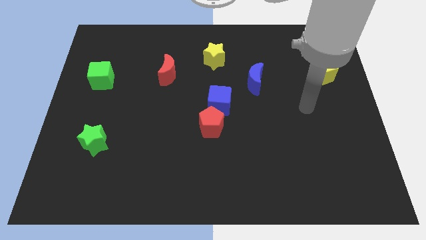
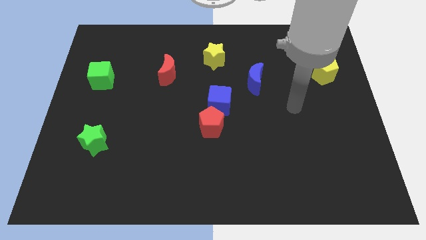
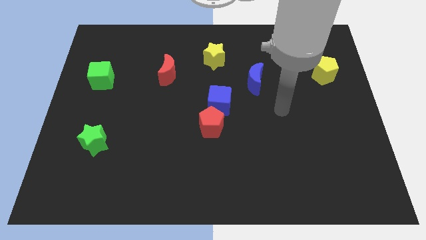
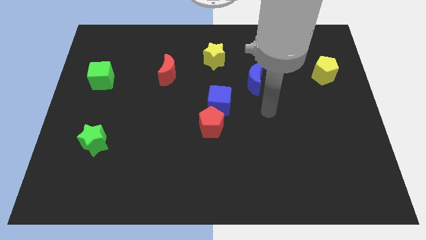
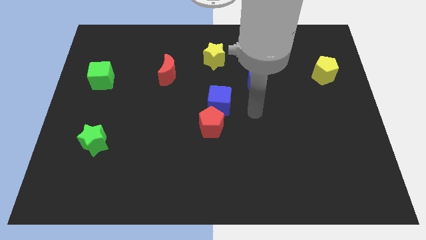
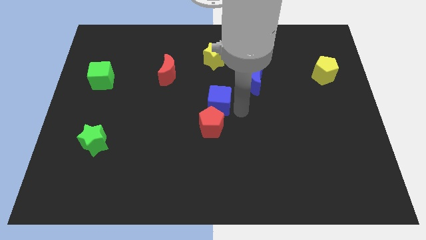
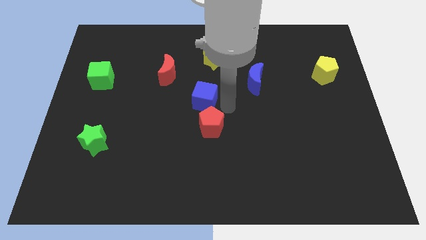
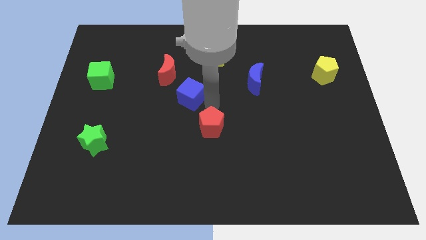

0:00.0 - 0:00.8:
move the red pentagon away from the blue cube

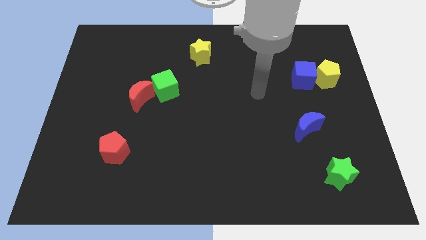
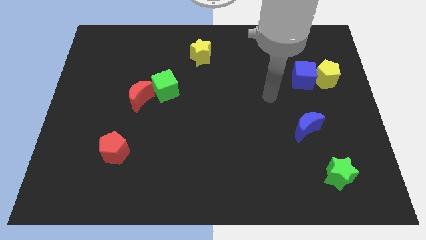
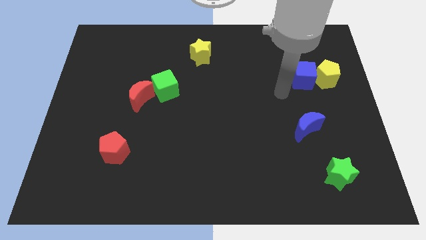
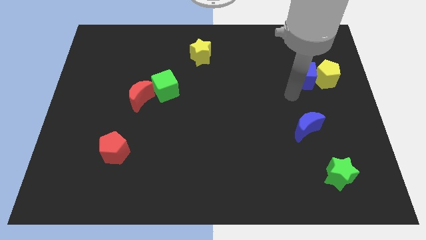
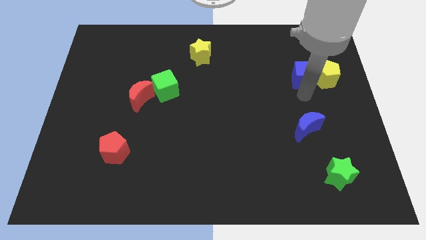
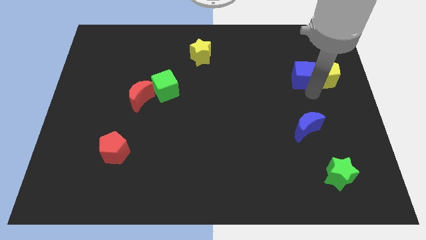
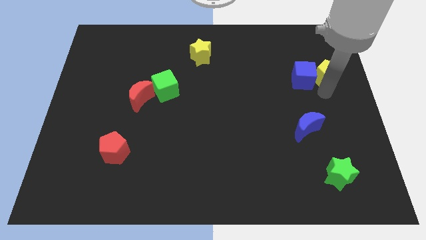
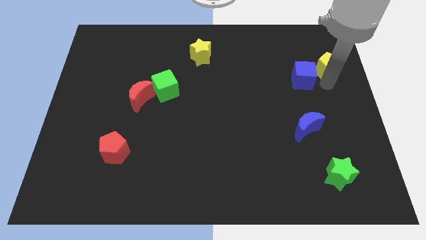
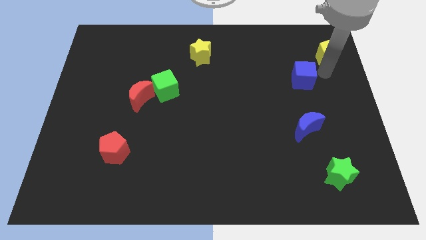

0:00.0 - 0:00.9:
separate the blue cube from the yellow pentagon

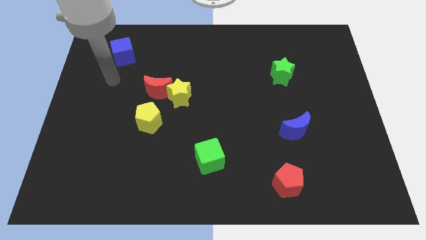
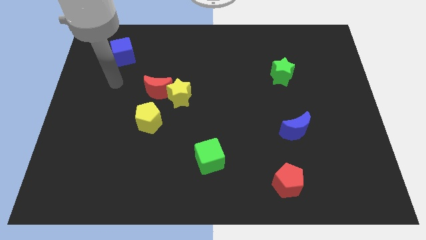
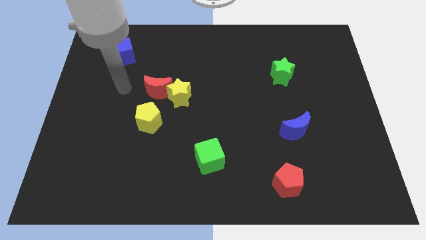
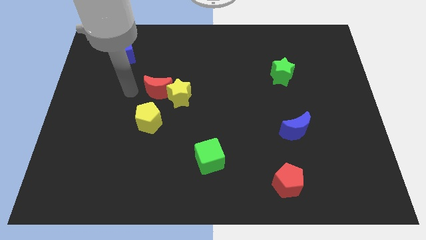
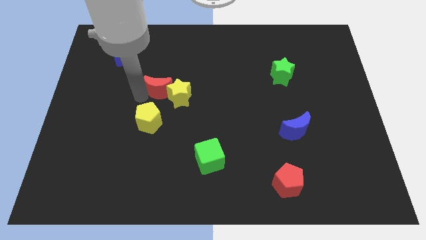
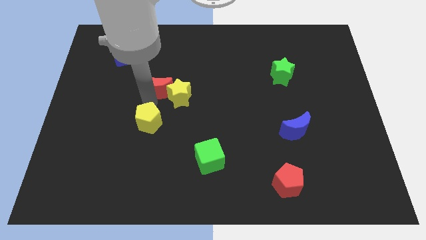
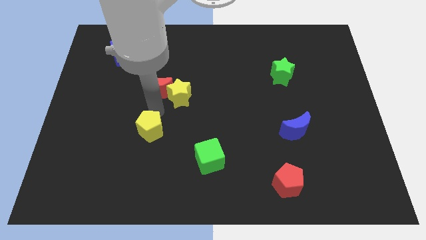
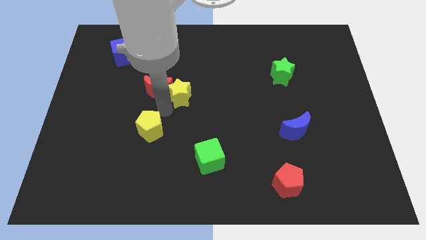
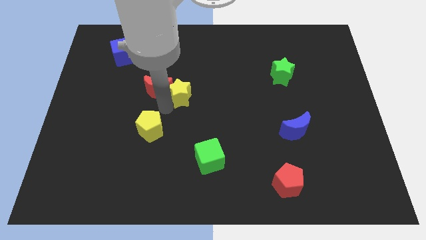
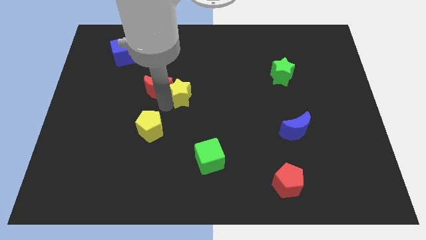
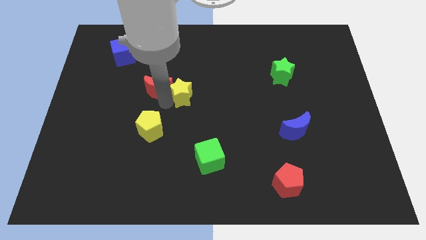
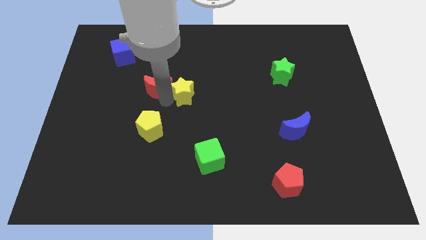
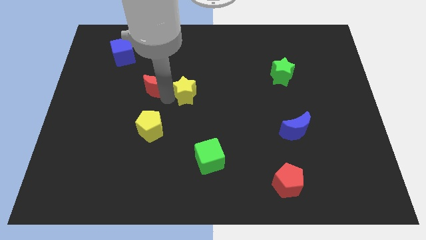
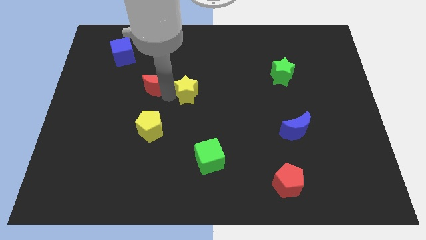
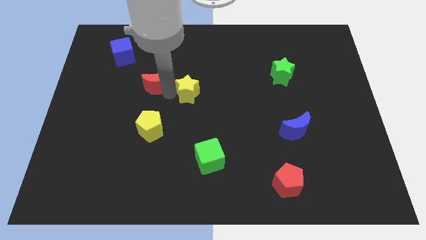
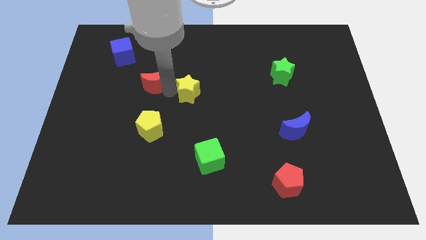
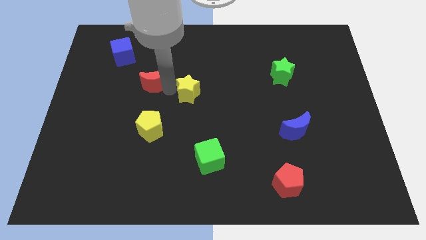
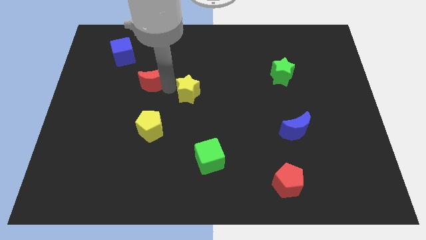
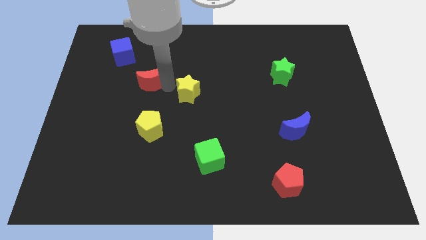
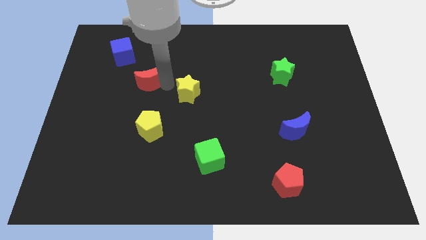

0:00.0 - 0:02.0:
separate the red moon from the yellow star and yellow pentagon

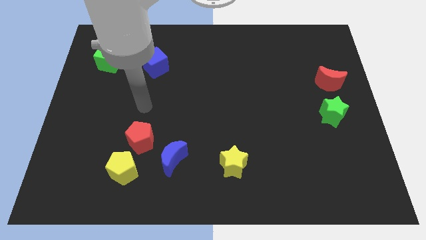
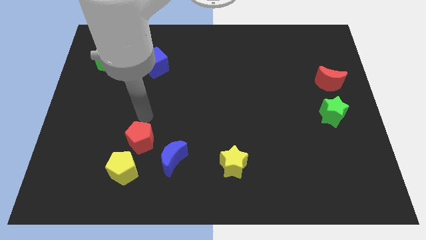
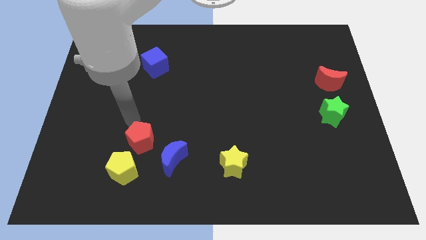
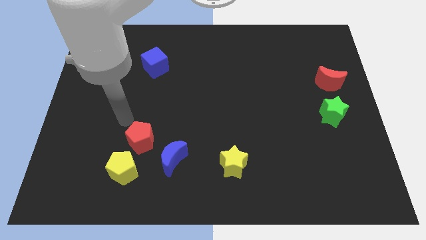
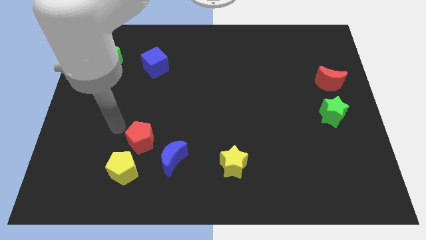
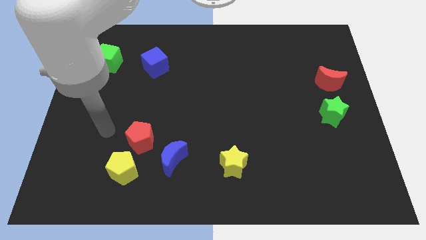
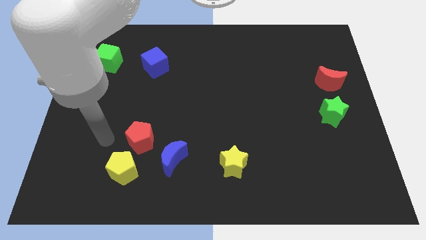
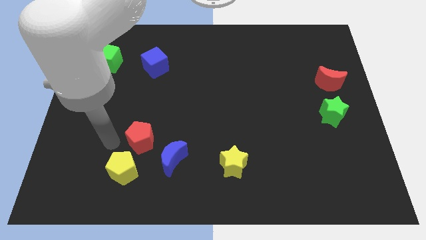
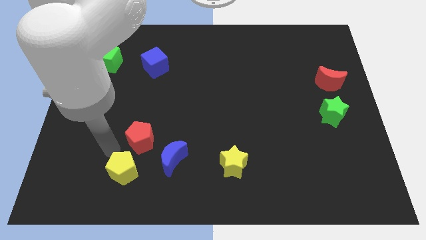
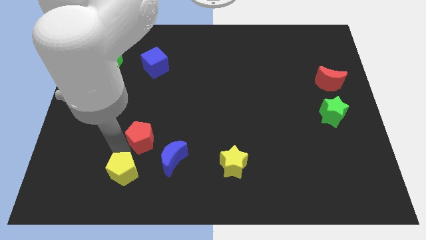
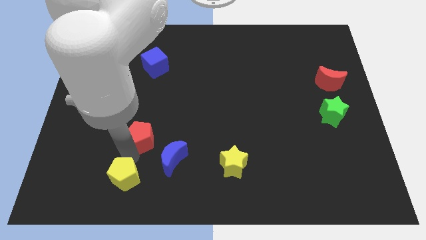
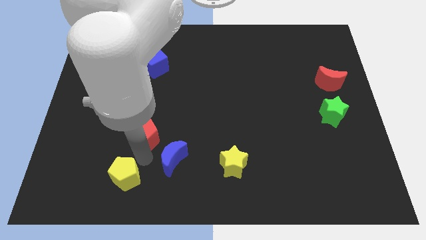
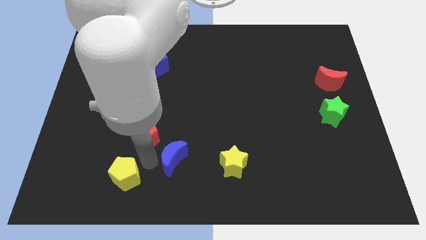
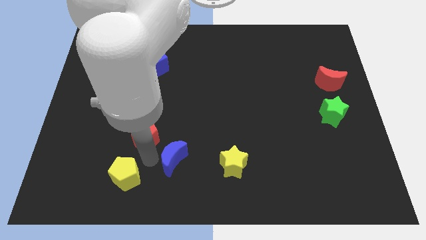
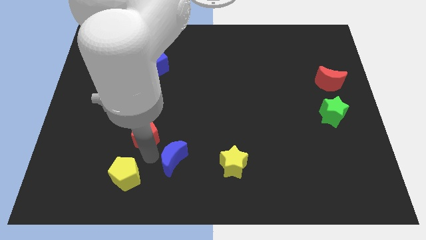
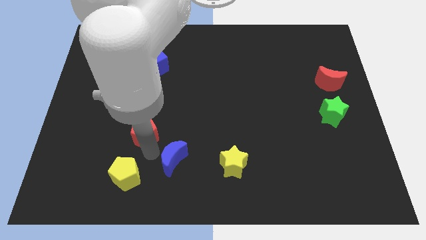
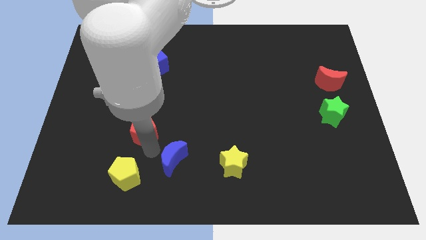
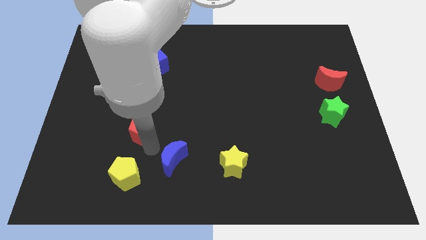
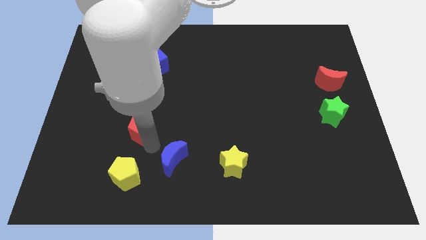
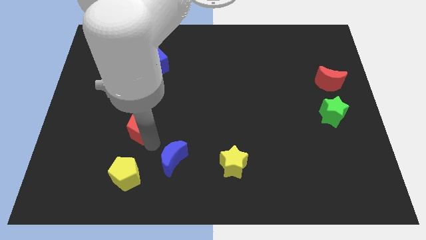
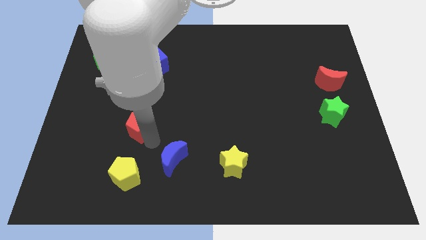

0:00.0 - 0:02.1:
pull the red pentagon apart from the yellow pentagon and blue moon

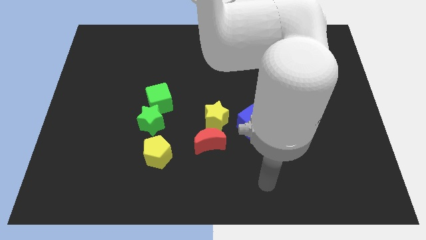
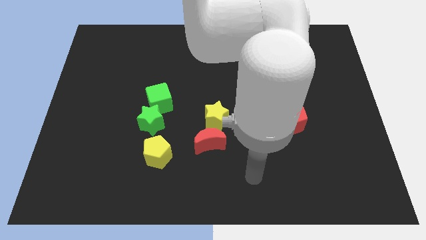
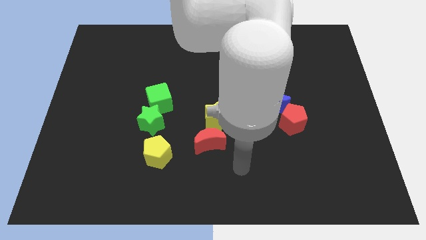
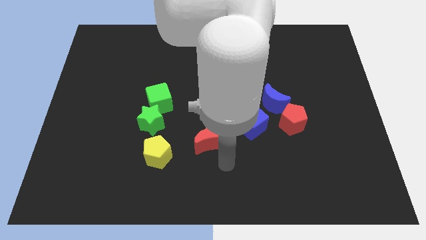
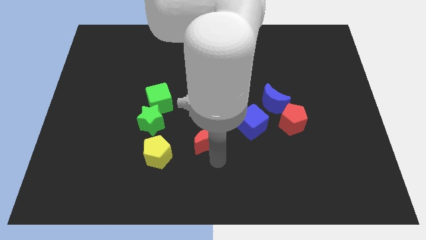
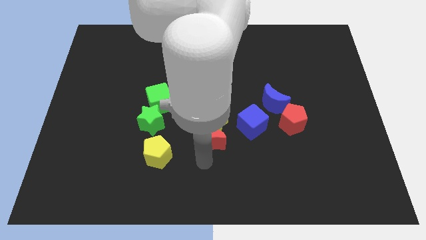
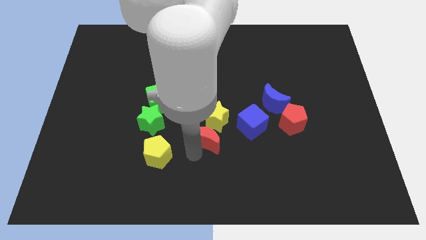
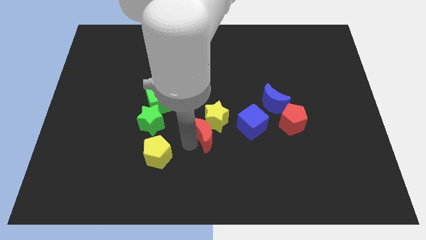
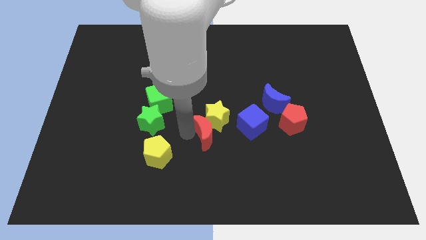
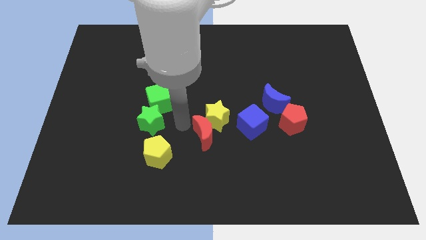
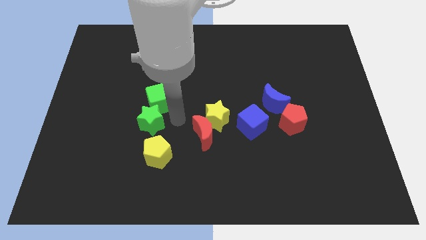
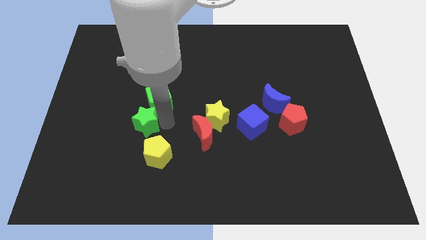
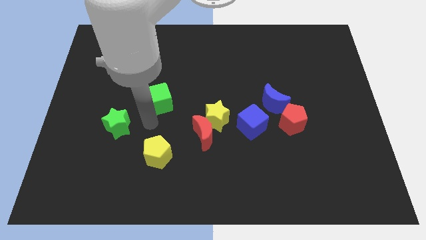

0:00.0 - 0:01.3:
pull the green cube apart from the green star

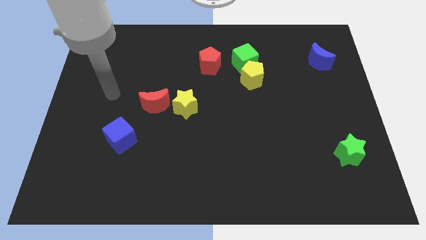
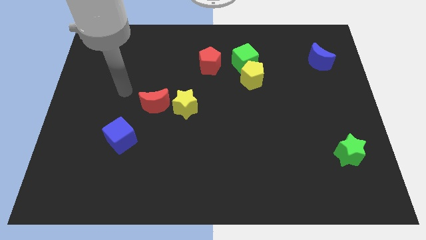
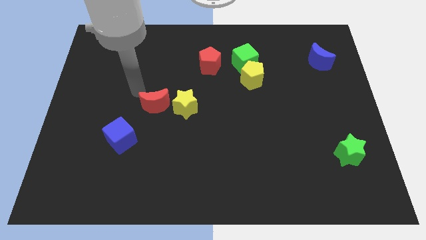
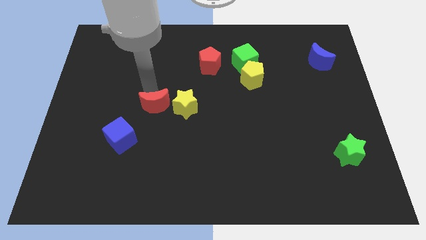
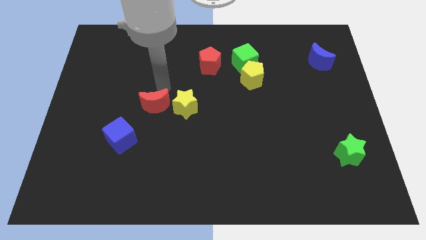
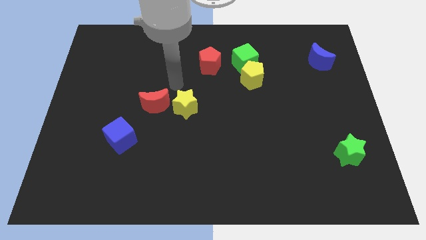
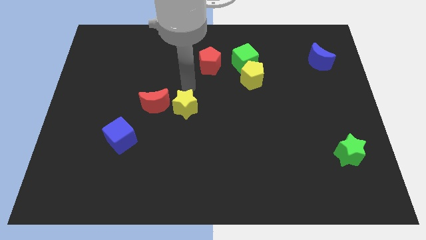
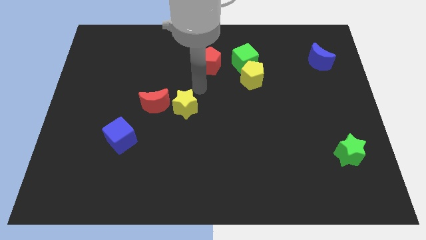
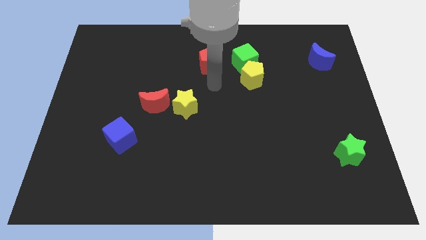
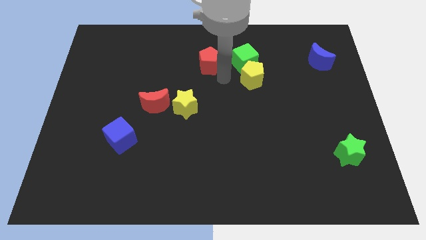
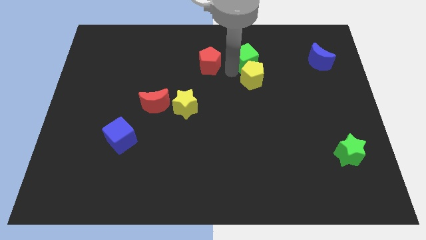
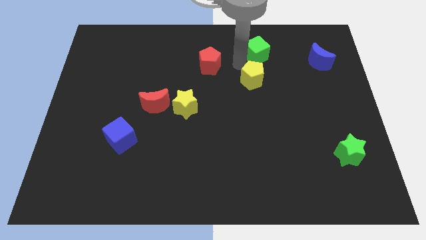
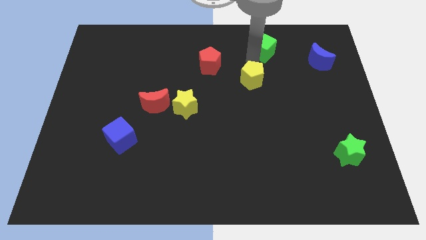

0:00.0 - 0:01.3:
move the yellow pentagon away from the green cube

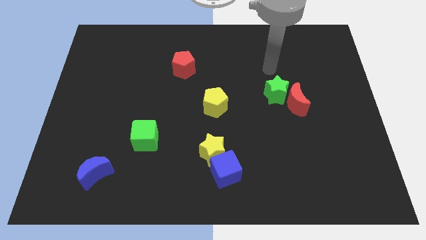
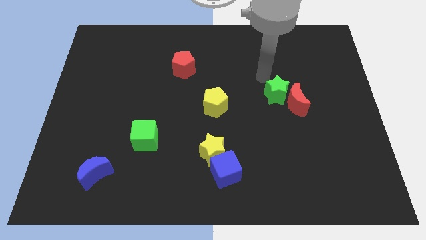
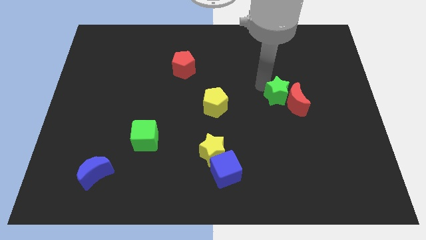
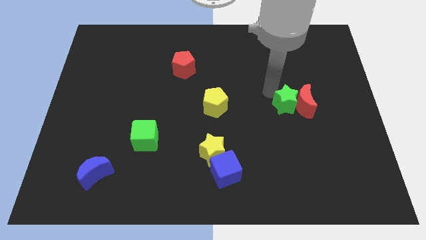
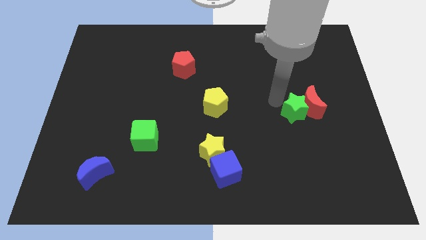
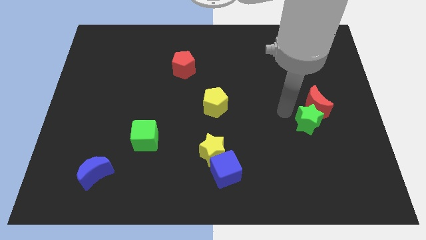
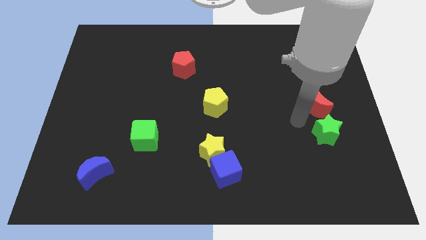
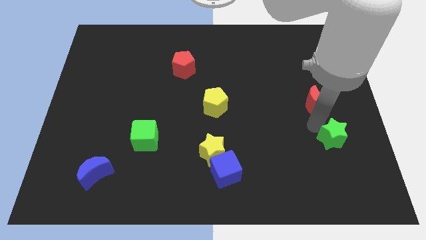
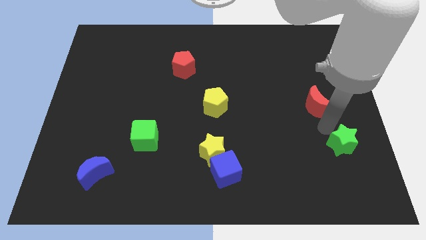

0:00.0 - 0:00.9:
pull the red moon apart from the green star

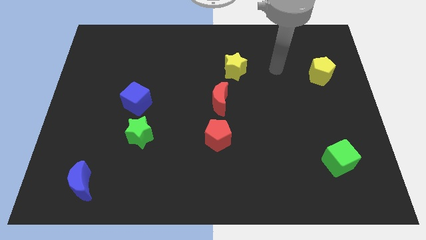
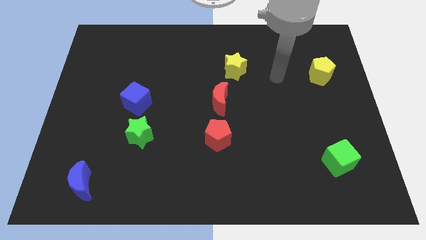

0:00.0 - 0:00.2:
move the blue cube away from the green star
